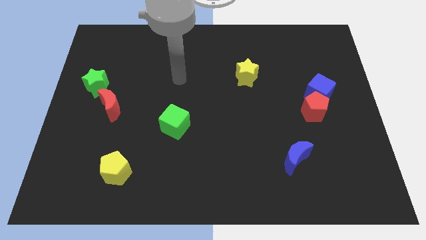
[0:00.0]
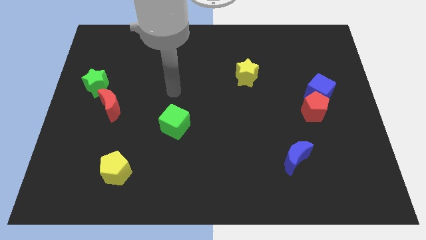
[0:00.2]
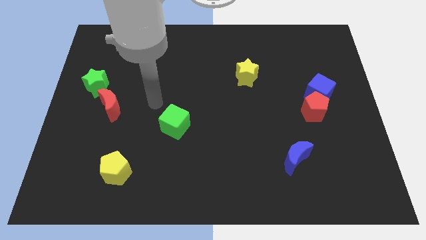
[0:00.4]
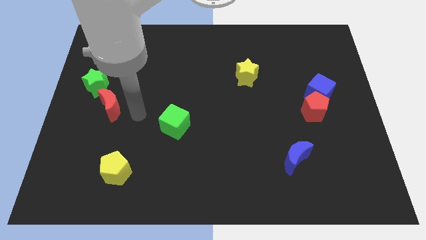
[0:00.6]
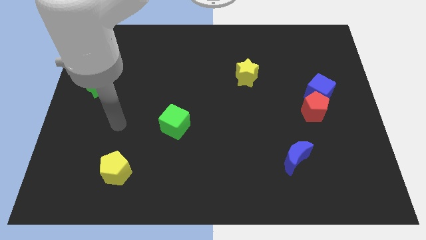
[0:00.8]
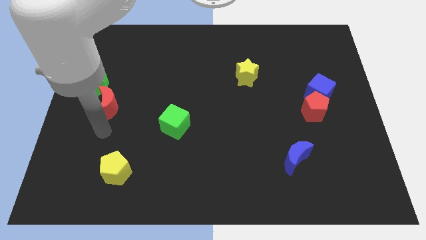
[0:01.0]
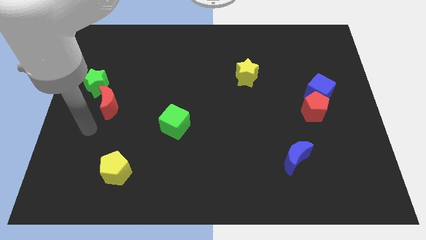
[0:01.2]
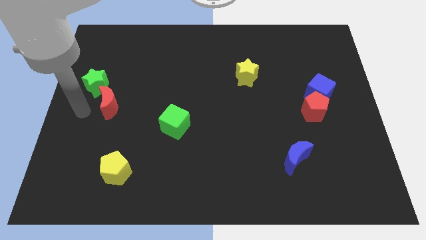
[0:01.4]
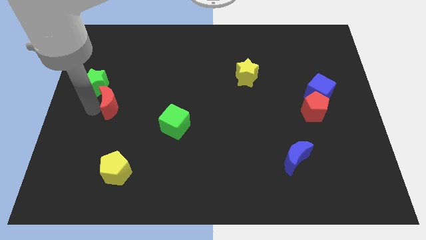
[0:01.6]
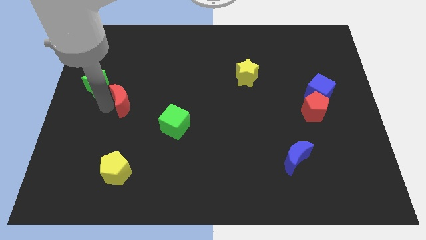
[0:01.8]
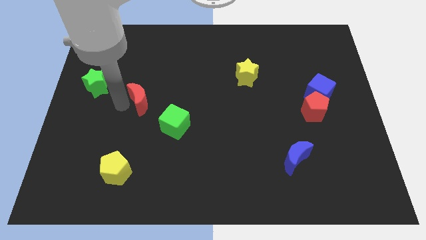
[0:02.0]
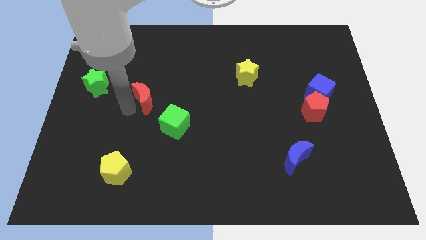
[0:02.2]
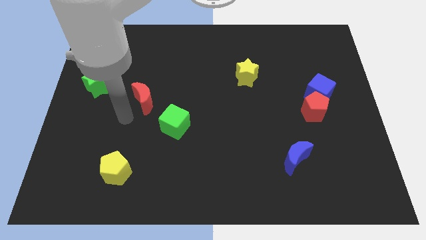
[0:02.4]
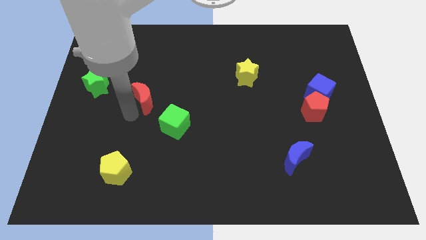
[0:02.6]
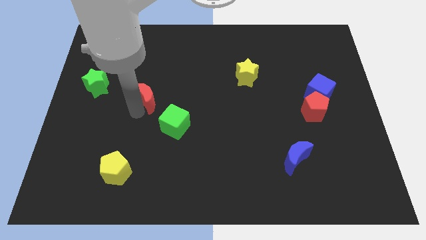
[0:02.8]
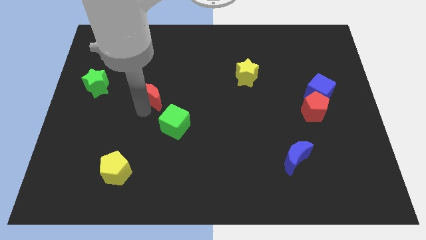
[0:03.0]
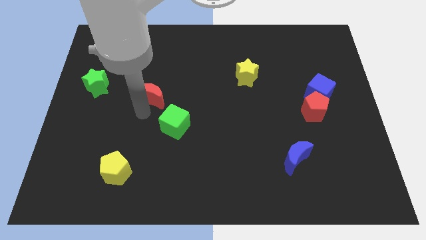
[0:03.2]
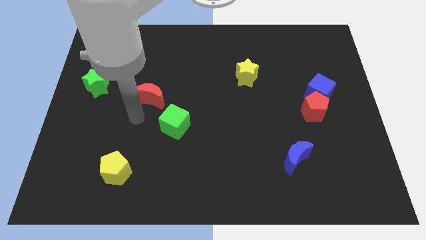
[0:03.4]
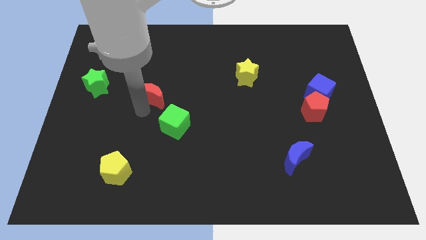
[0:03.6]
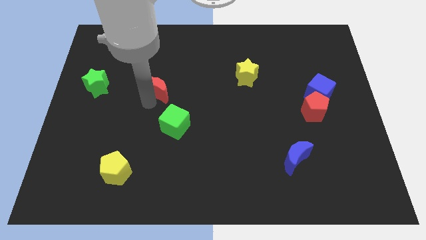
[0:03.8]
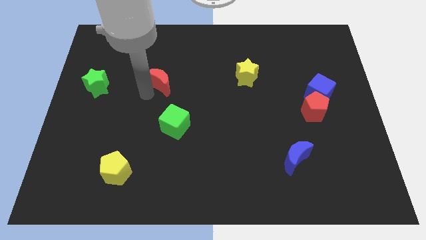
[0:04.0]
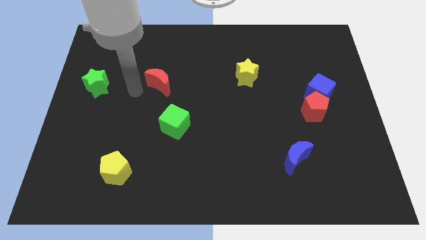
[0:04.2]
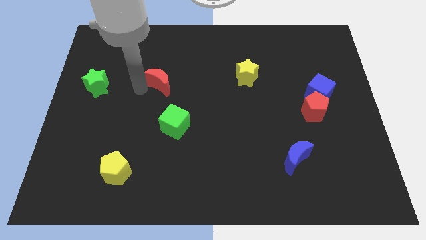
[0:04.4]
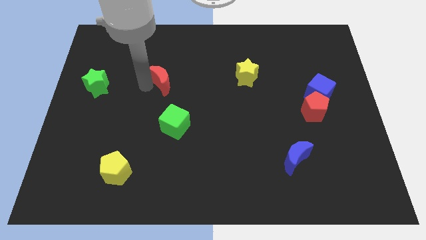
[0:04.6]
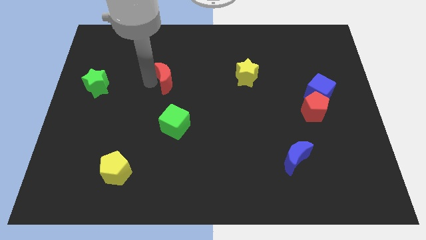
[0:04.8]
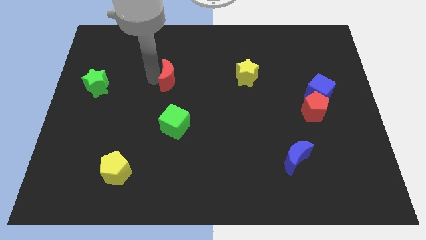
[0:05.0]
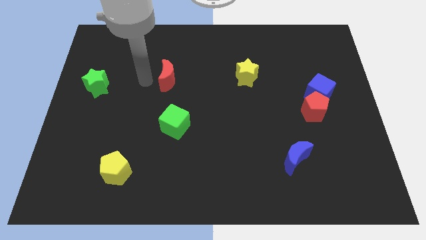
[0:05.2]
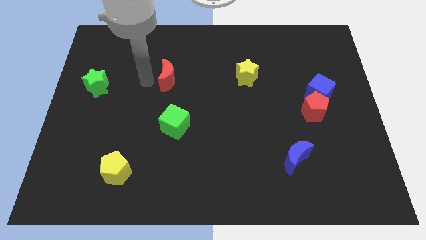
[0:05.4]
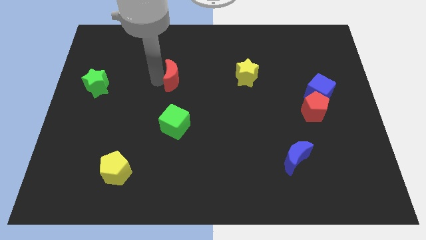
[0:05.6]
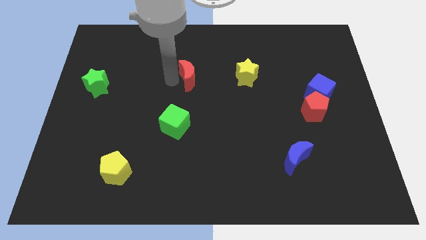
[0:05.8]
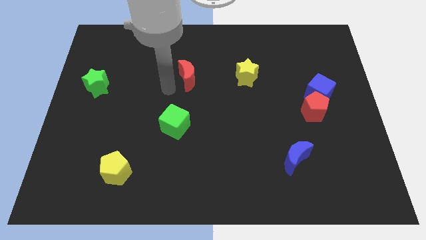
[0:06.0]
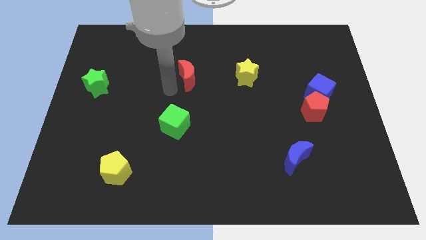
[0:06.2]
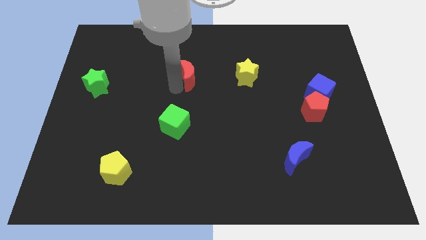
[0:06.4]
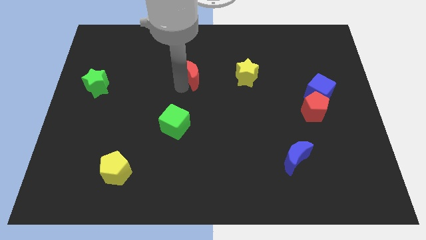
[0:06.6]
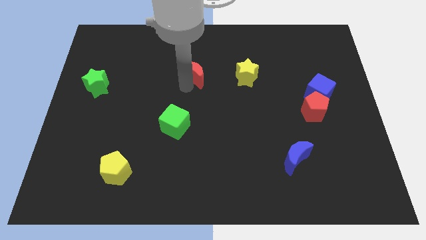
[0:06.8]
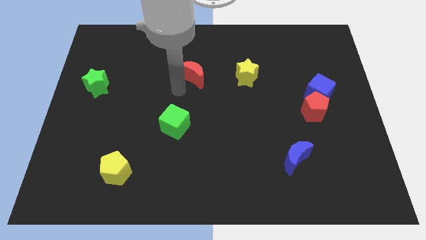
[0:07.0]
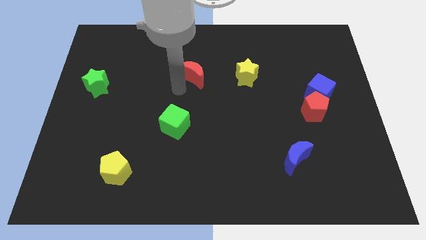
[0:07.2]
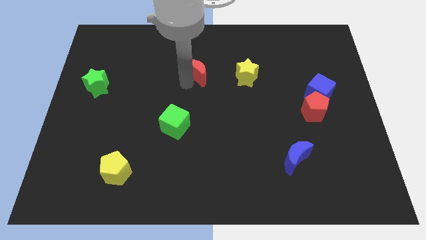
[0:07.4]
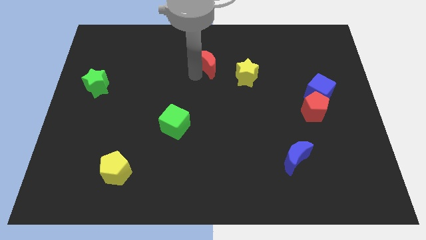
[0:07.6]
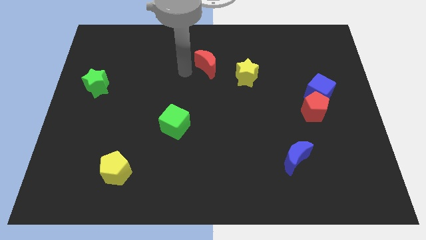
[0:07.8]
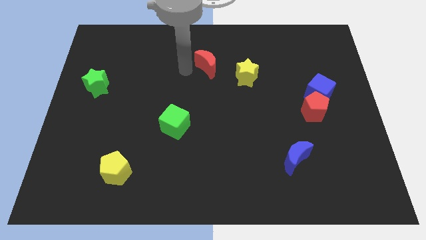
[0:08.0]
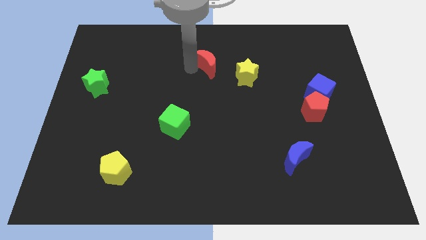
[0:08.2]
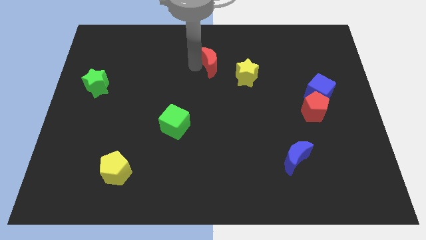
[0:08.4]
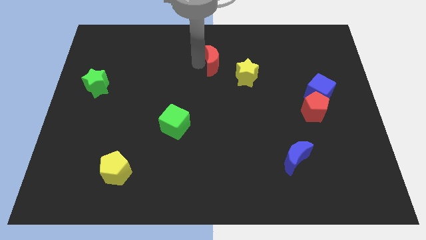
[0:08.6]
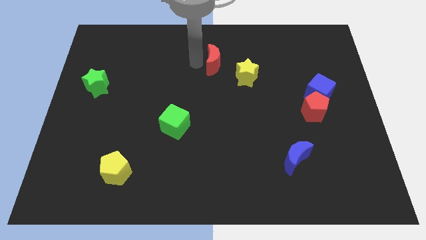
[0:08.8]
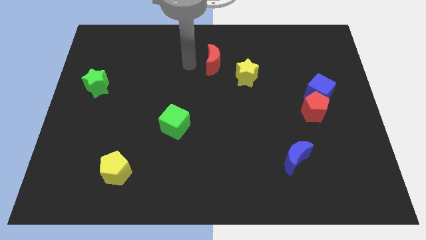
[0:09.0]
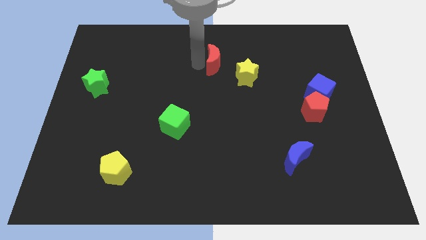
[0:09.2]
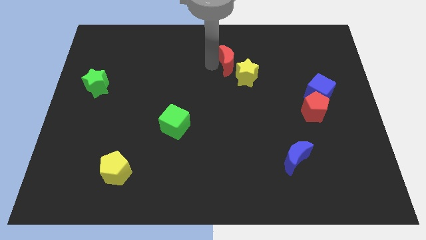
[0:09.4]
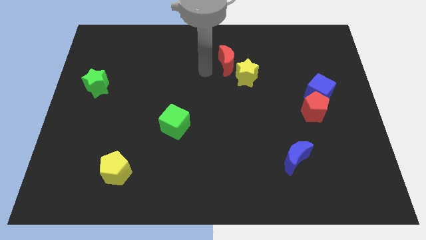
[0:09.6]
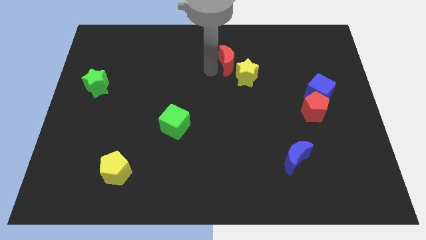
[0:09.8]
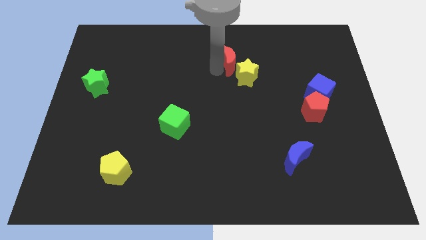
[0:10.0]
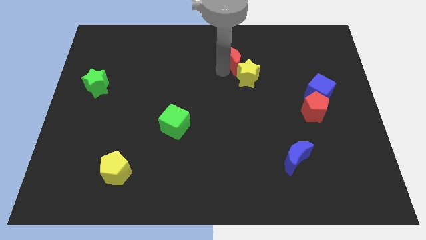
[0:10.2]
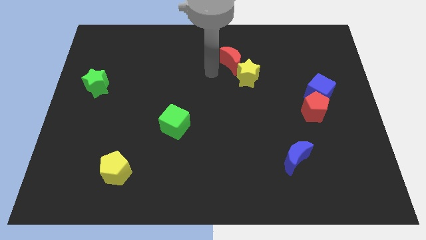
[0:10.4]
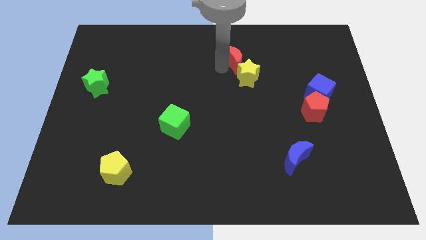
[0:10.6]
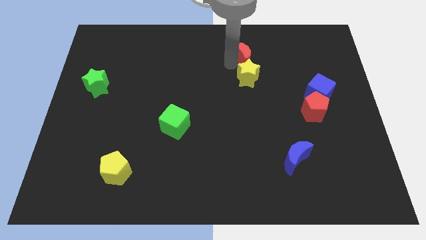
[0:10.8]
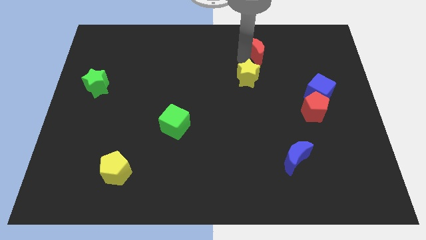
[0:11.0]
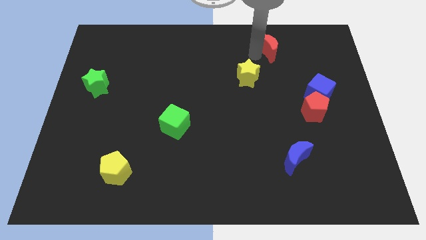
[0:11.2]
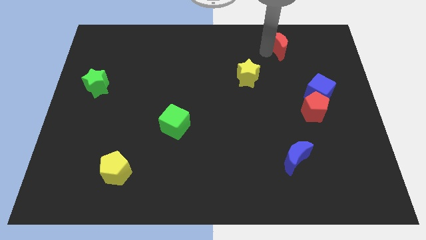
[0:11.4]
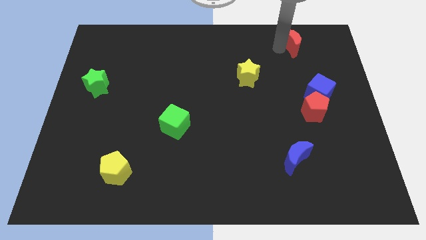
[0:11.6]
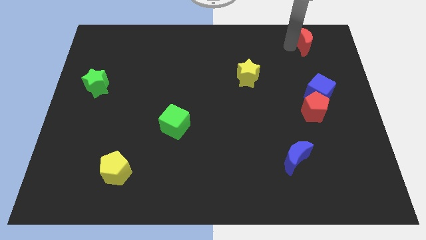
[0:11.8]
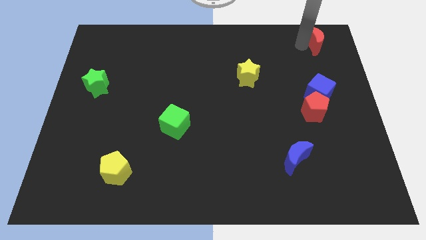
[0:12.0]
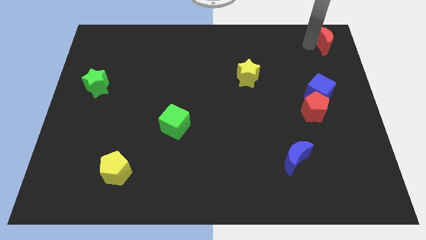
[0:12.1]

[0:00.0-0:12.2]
move the red moon to the top right of the board

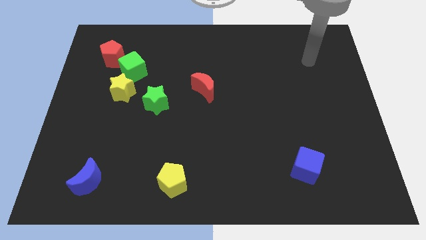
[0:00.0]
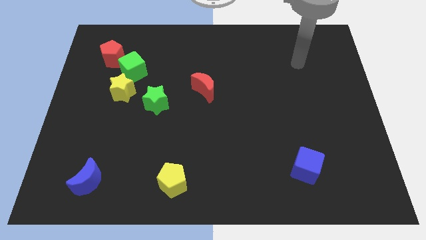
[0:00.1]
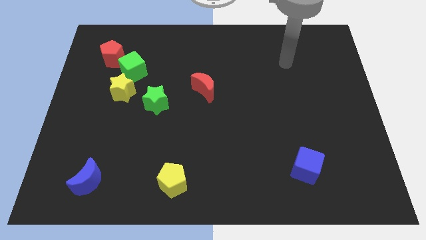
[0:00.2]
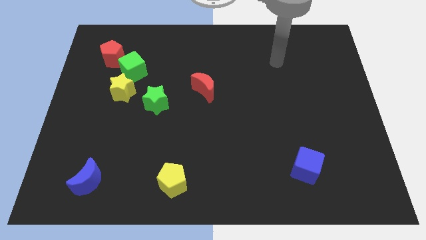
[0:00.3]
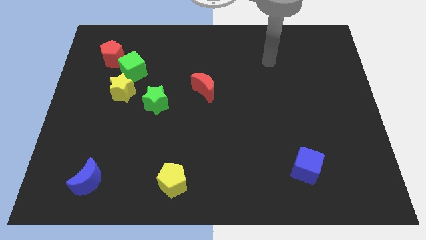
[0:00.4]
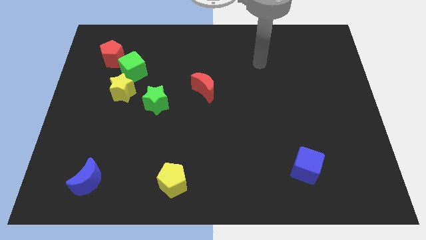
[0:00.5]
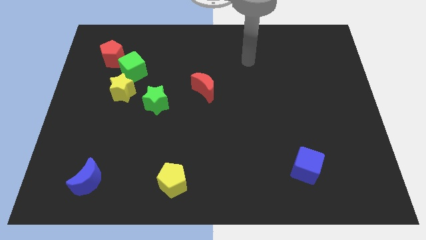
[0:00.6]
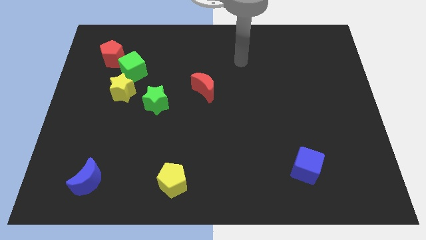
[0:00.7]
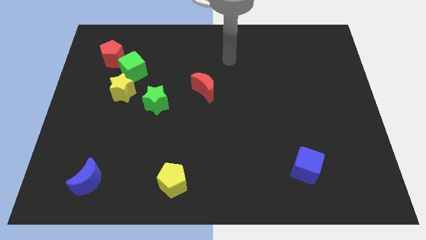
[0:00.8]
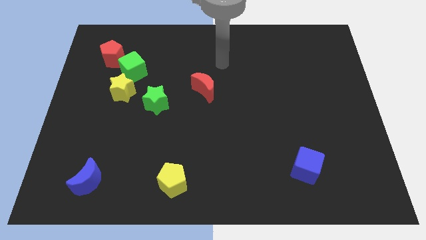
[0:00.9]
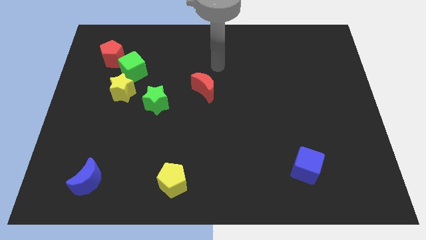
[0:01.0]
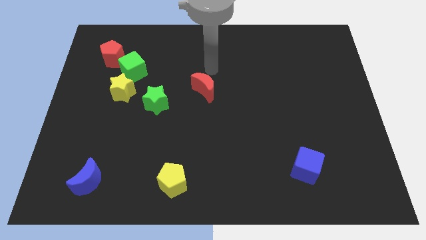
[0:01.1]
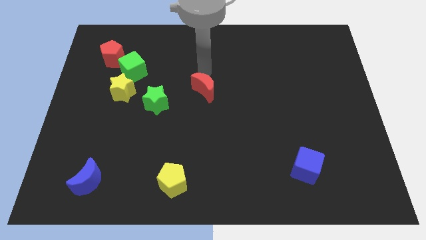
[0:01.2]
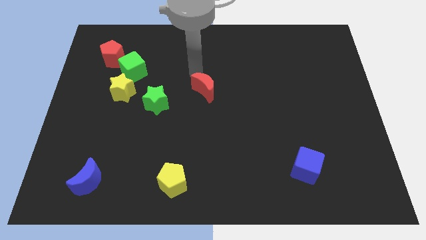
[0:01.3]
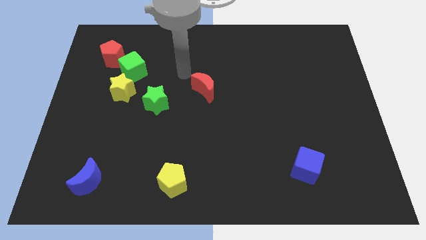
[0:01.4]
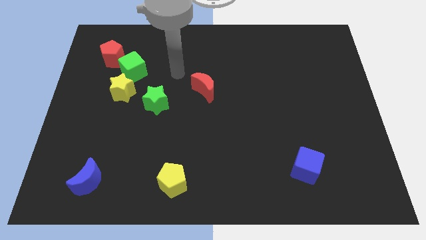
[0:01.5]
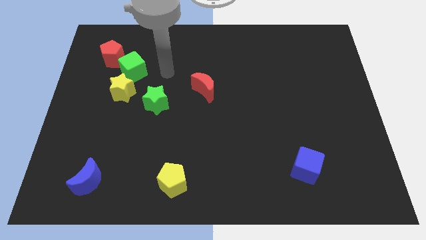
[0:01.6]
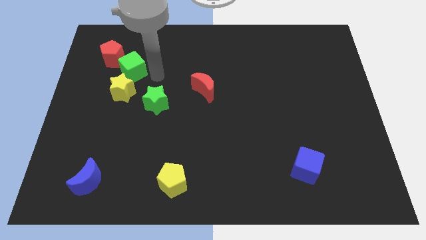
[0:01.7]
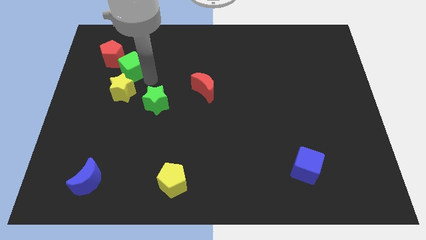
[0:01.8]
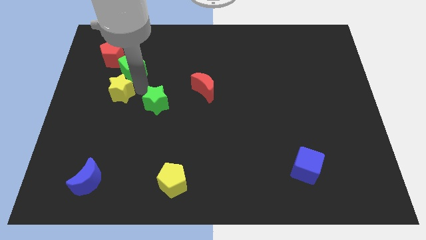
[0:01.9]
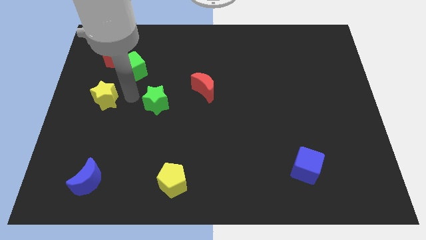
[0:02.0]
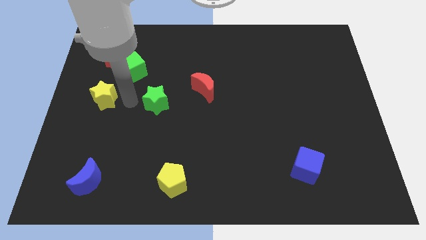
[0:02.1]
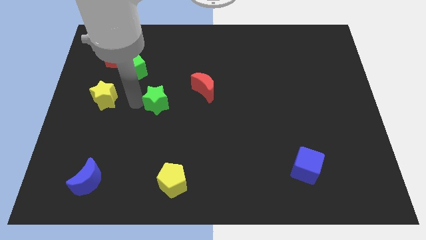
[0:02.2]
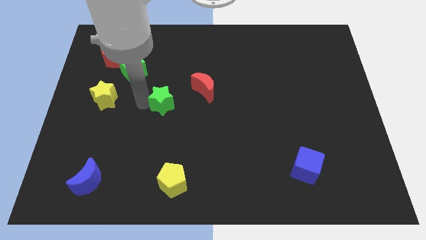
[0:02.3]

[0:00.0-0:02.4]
put the green star to the middle
